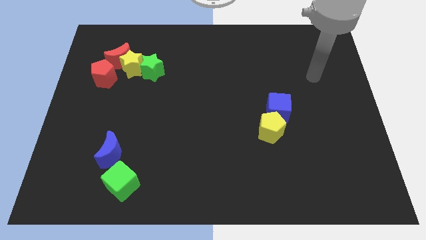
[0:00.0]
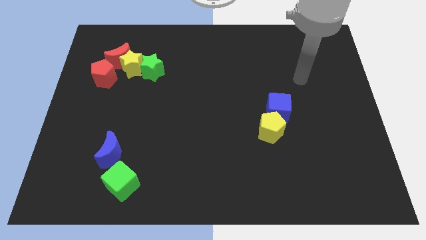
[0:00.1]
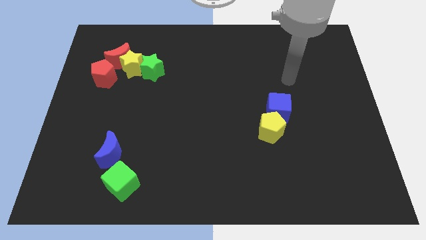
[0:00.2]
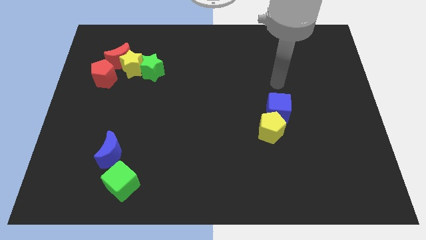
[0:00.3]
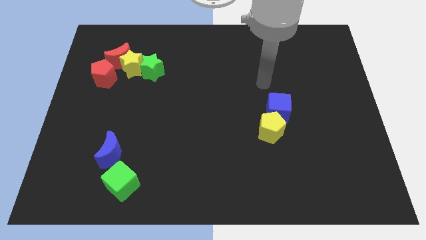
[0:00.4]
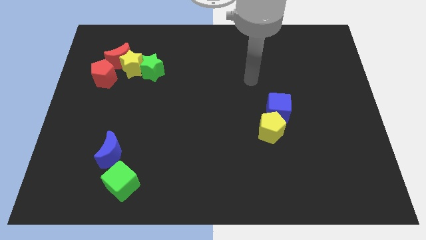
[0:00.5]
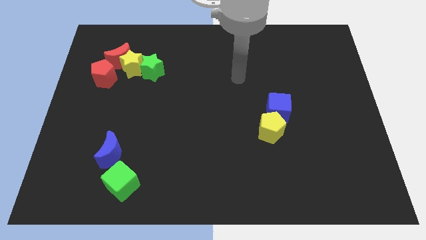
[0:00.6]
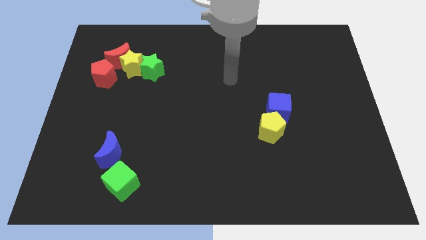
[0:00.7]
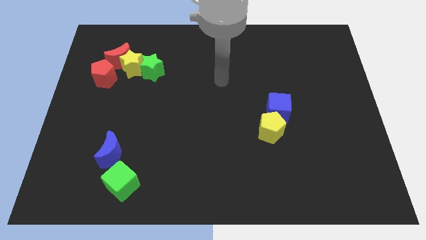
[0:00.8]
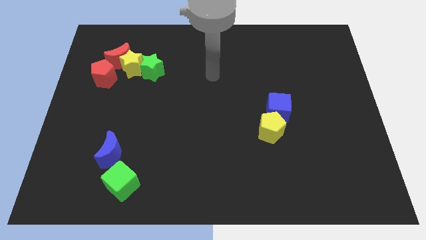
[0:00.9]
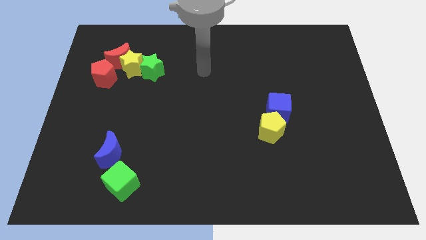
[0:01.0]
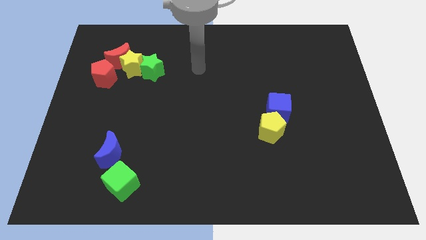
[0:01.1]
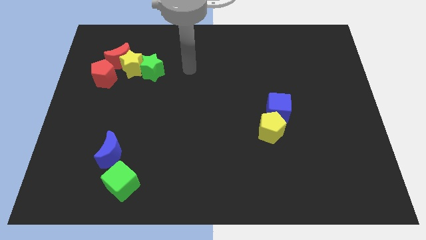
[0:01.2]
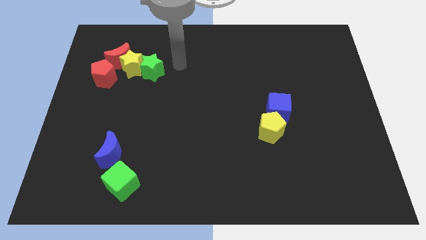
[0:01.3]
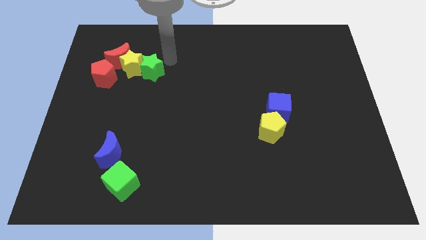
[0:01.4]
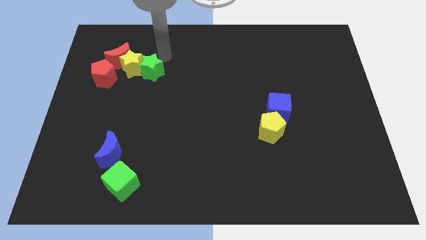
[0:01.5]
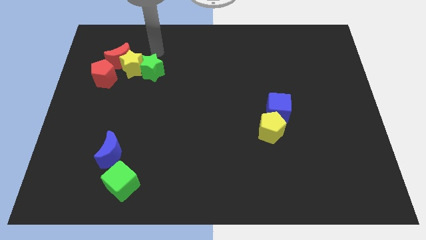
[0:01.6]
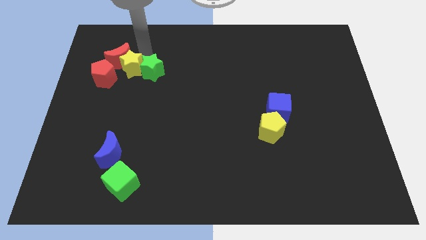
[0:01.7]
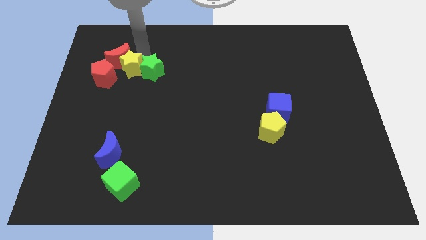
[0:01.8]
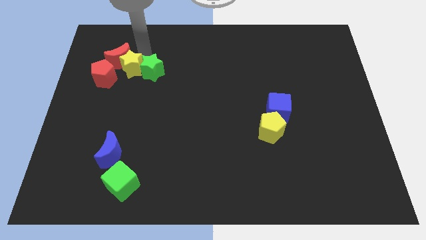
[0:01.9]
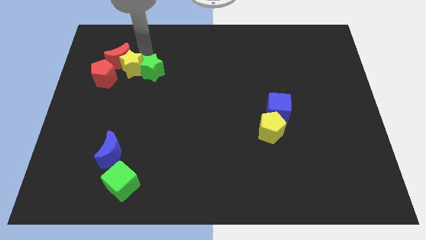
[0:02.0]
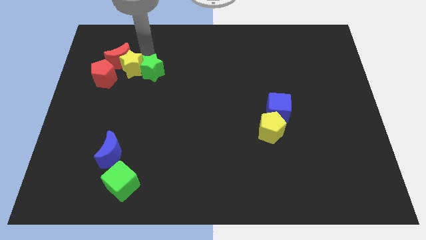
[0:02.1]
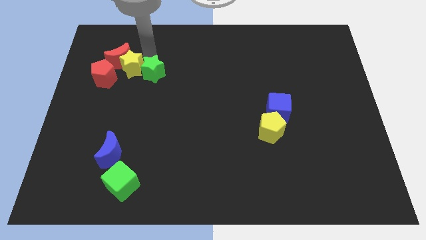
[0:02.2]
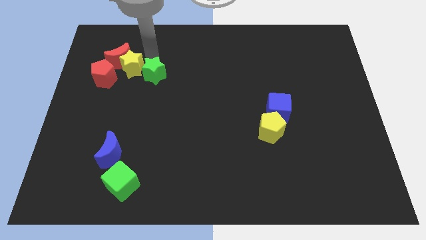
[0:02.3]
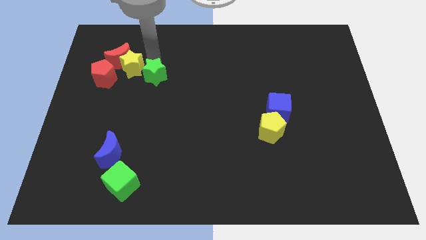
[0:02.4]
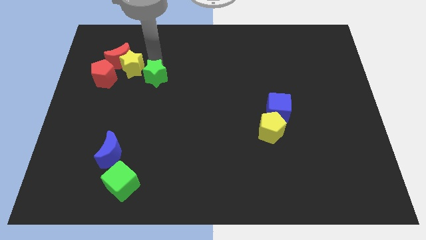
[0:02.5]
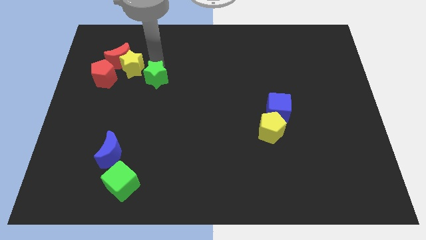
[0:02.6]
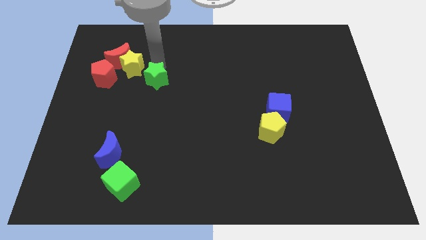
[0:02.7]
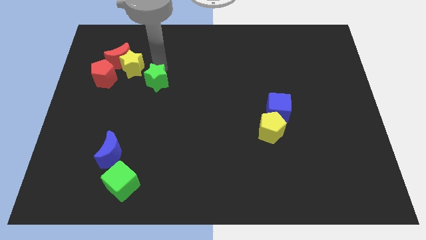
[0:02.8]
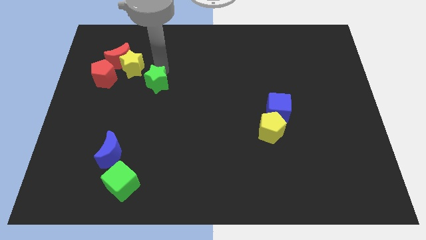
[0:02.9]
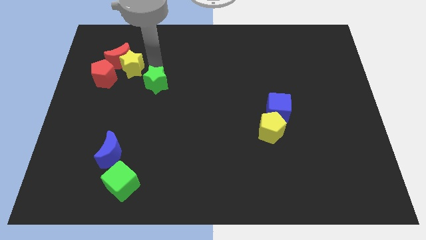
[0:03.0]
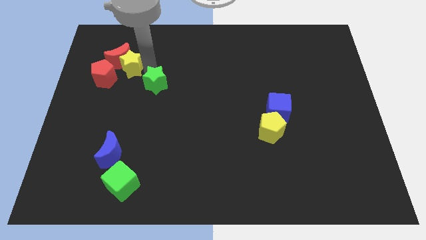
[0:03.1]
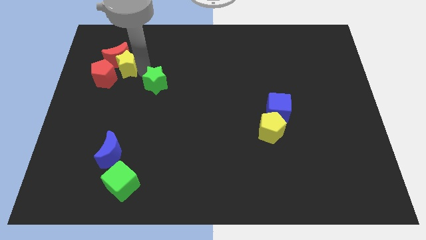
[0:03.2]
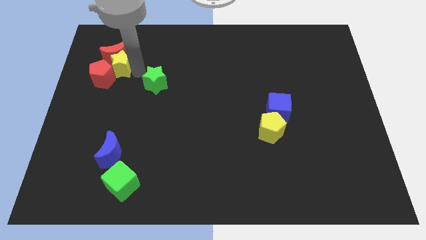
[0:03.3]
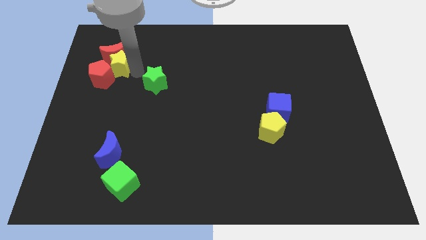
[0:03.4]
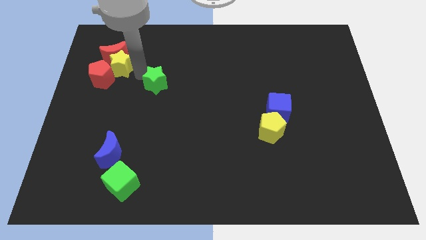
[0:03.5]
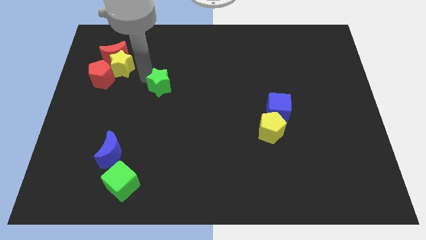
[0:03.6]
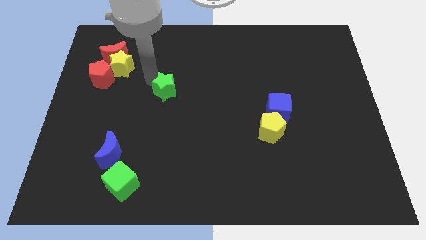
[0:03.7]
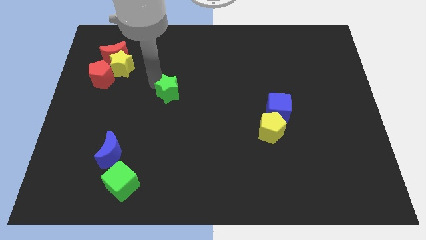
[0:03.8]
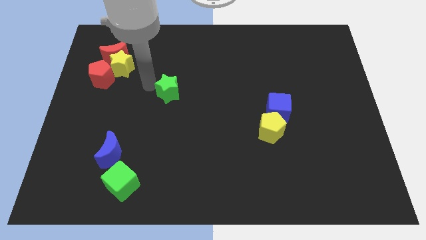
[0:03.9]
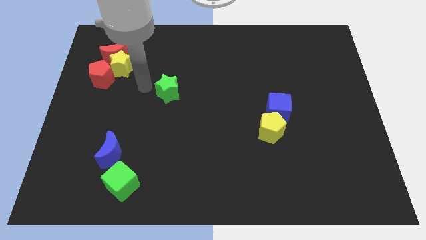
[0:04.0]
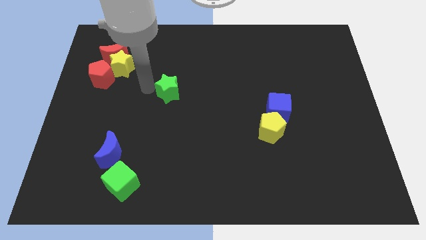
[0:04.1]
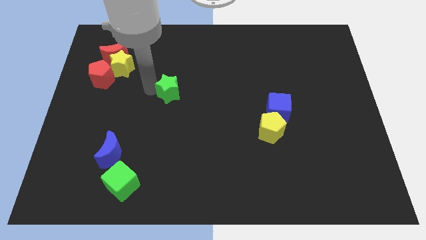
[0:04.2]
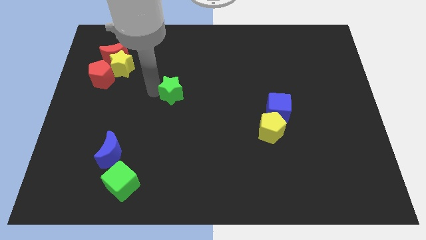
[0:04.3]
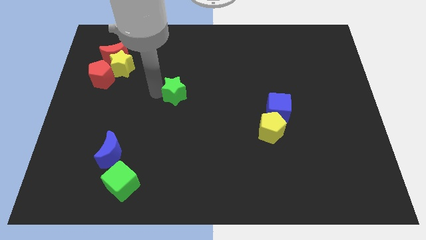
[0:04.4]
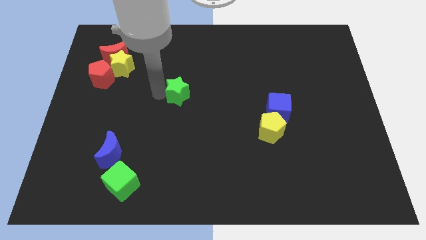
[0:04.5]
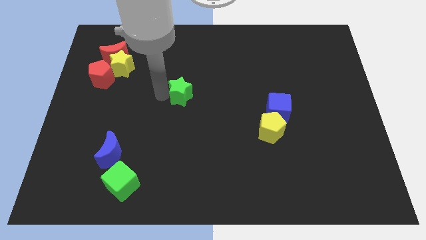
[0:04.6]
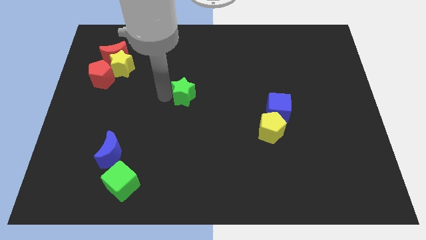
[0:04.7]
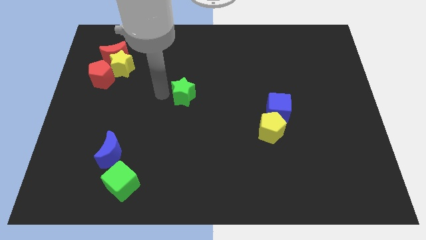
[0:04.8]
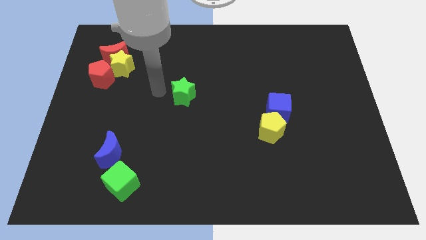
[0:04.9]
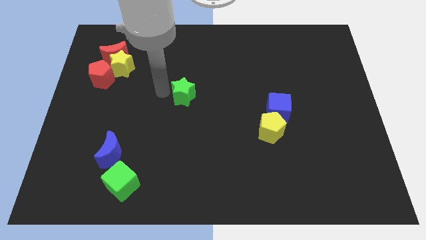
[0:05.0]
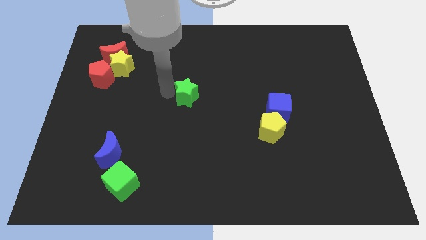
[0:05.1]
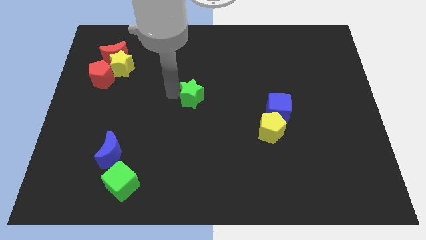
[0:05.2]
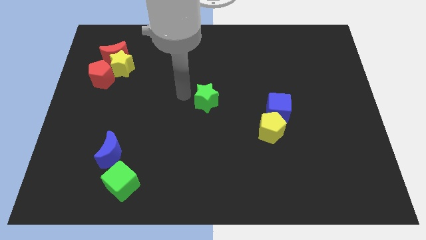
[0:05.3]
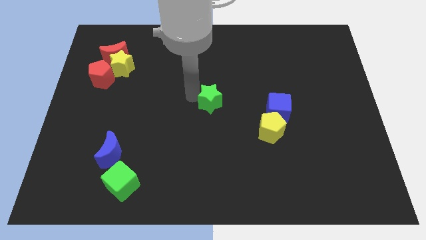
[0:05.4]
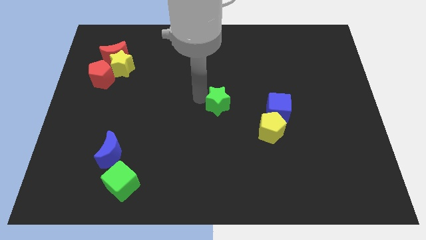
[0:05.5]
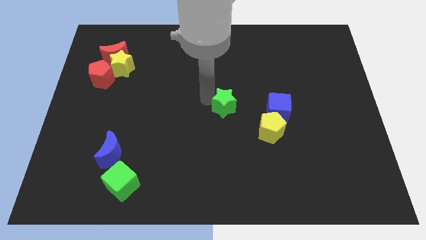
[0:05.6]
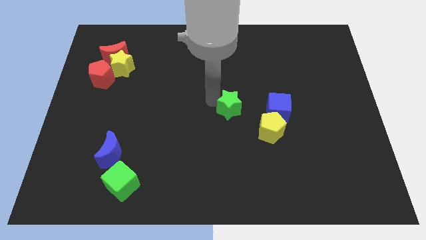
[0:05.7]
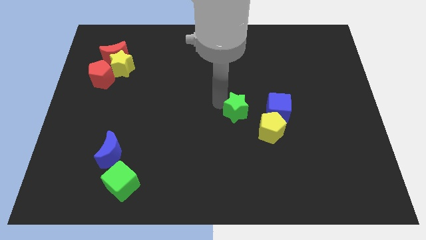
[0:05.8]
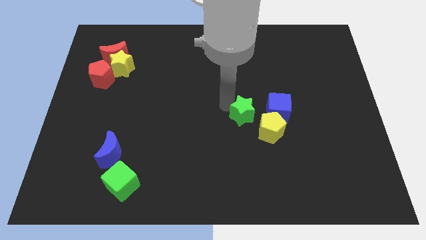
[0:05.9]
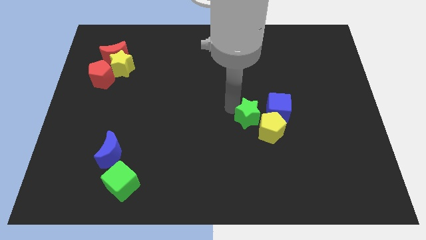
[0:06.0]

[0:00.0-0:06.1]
move the green star towards the yellow pentagon

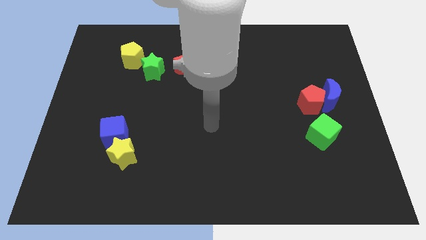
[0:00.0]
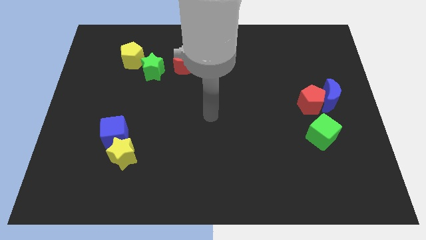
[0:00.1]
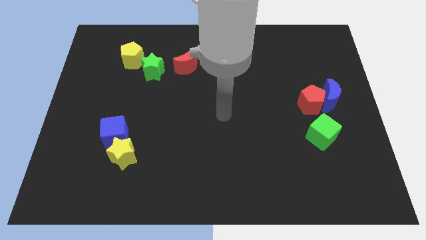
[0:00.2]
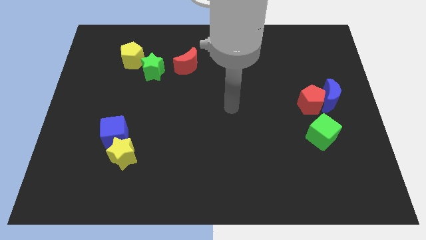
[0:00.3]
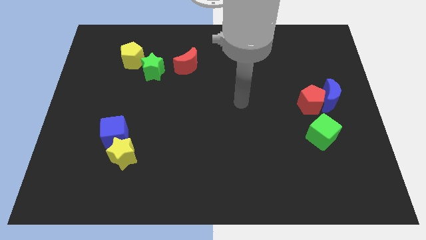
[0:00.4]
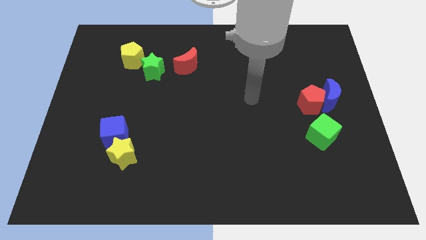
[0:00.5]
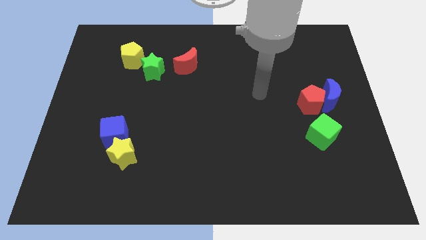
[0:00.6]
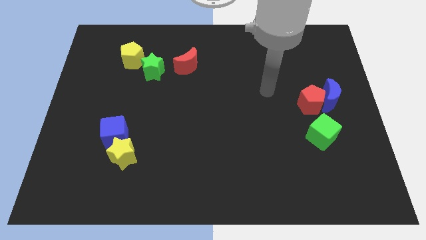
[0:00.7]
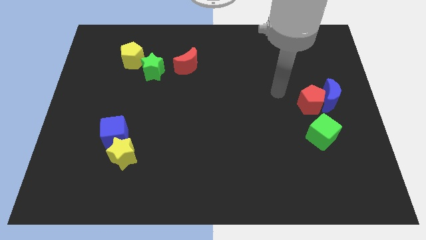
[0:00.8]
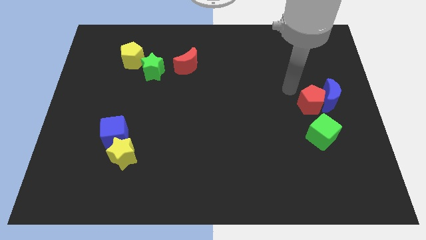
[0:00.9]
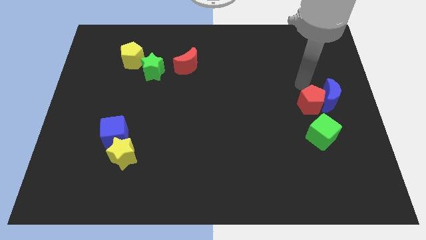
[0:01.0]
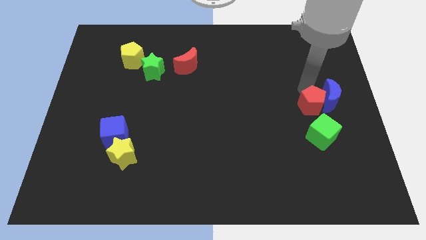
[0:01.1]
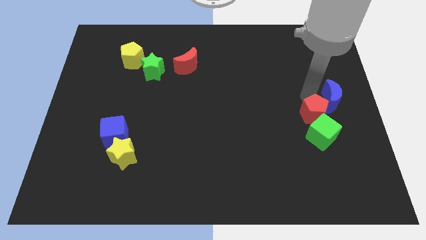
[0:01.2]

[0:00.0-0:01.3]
move the red pentagon towards the green cube

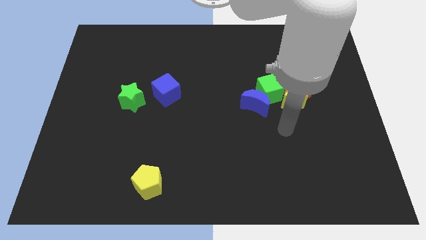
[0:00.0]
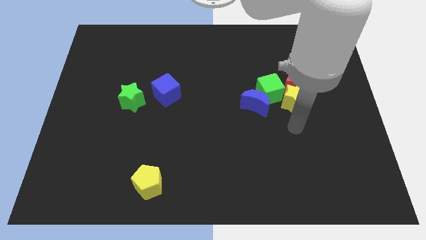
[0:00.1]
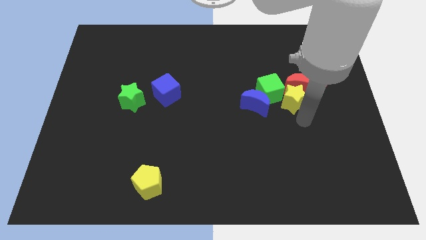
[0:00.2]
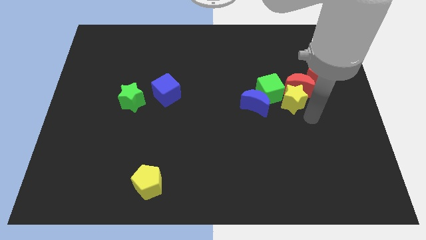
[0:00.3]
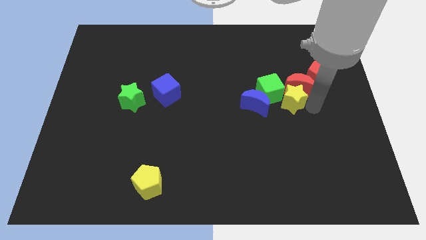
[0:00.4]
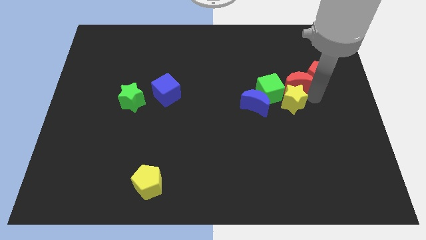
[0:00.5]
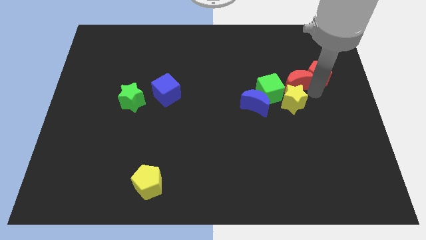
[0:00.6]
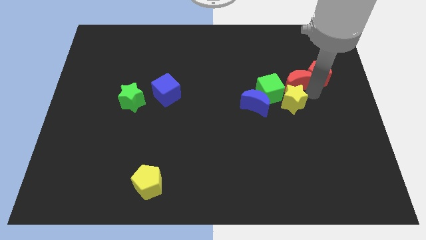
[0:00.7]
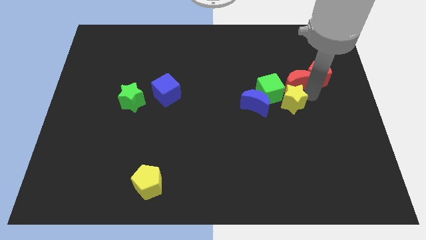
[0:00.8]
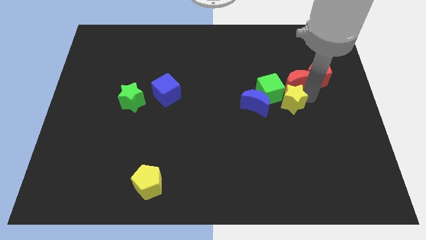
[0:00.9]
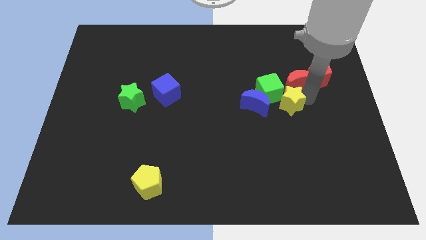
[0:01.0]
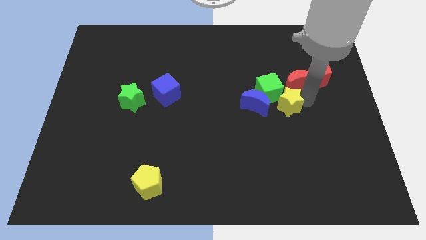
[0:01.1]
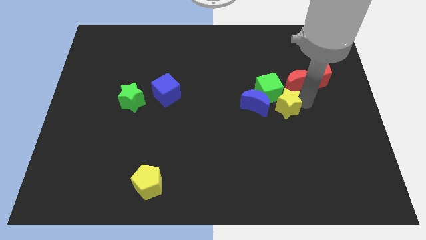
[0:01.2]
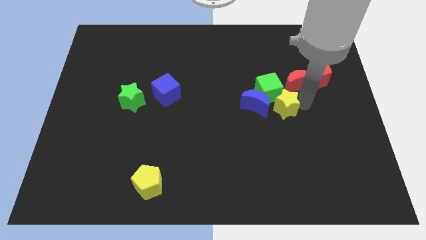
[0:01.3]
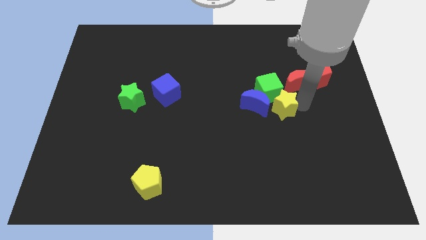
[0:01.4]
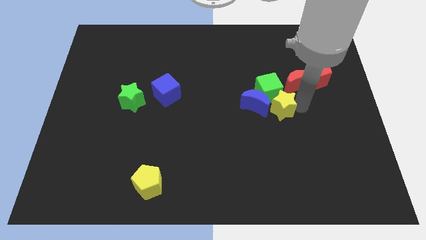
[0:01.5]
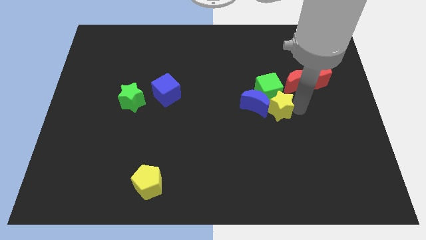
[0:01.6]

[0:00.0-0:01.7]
push the yellow star towards the blue moon
